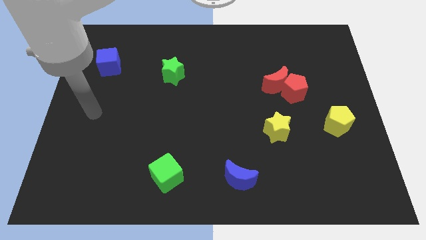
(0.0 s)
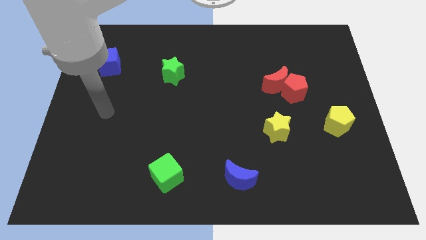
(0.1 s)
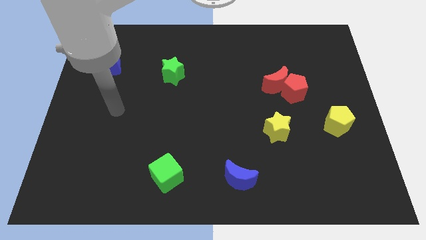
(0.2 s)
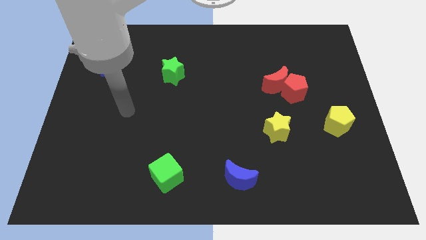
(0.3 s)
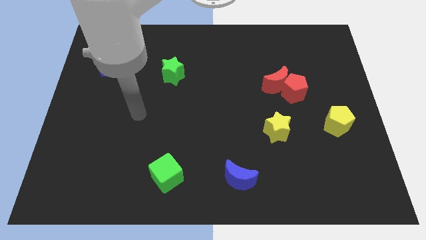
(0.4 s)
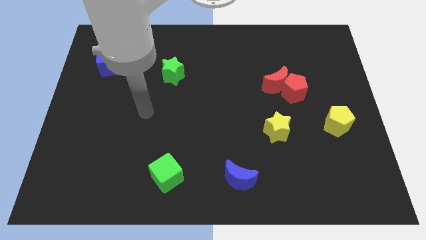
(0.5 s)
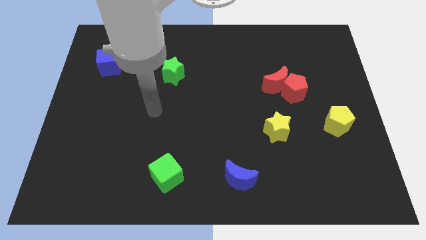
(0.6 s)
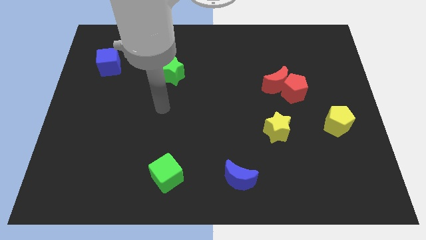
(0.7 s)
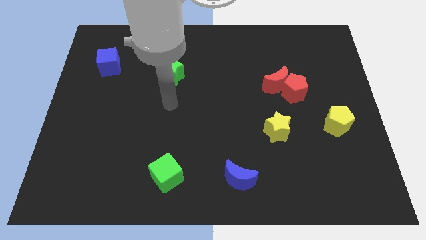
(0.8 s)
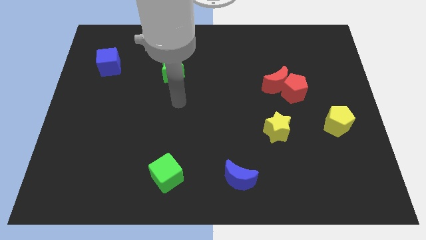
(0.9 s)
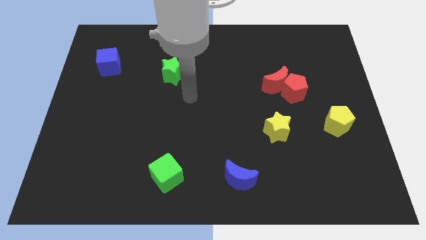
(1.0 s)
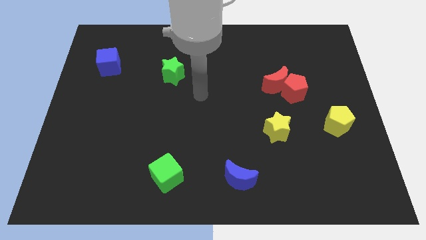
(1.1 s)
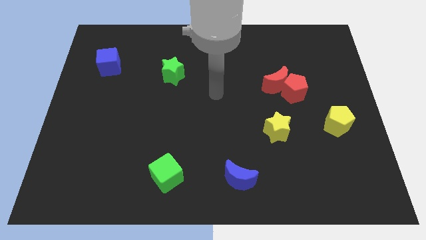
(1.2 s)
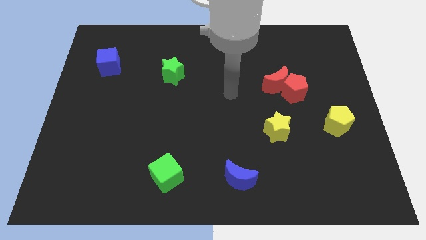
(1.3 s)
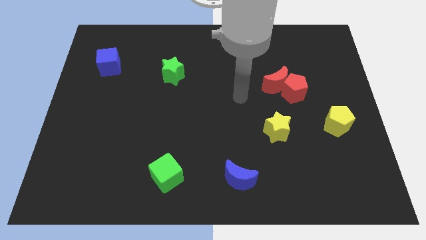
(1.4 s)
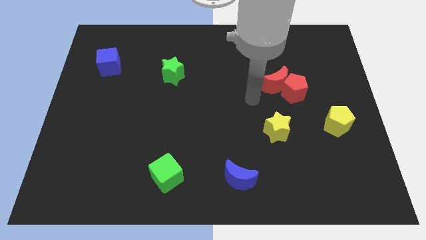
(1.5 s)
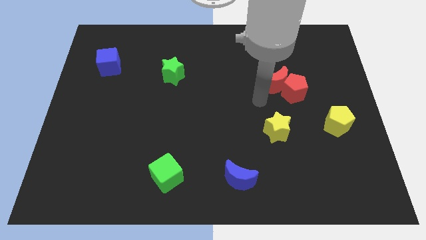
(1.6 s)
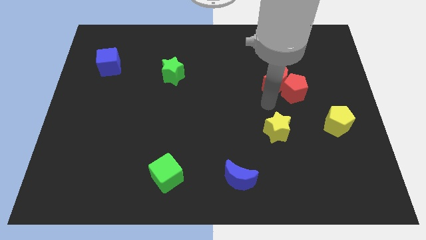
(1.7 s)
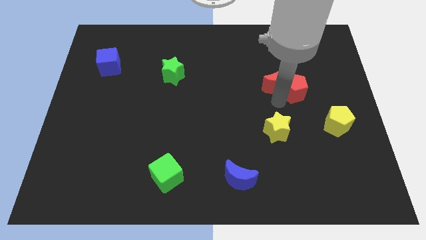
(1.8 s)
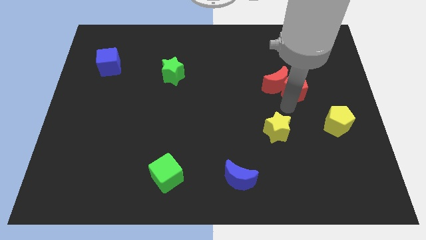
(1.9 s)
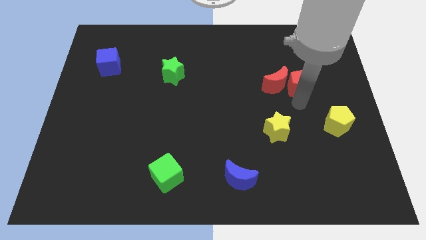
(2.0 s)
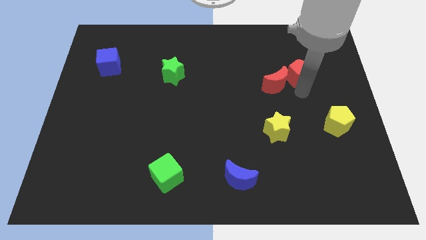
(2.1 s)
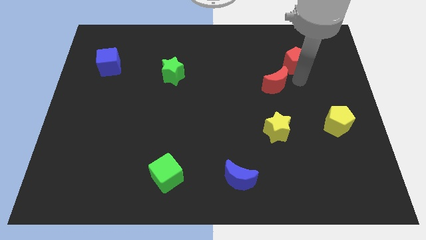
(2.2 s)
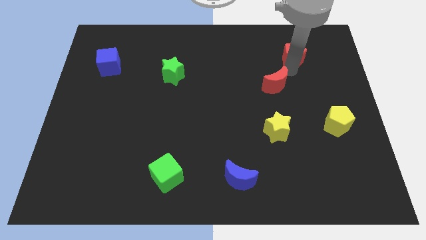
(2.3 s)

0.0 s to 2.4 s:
separate the red moon from the red pentagon

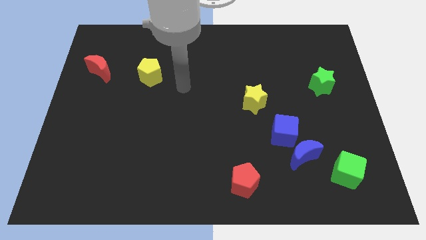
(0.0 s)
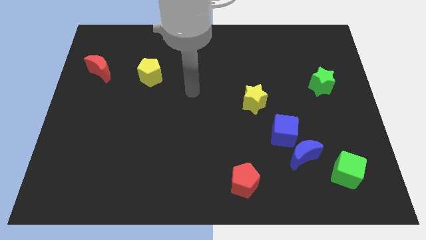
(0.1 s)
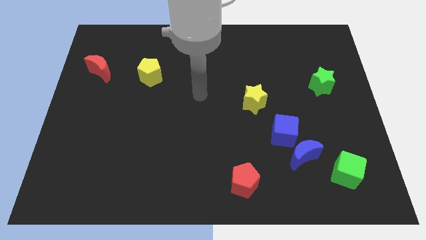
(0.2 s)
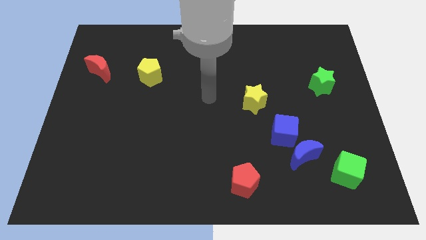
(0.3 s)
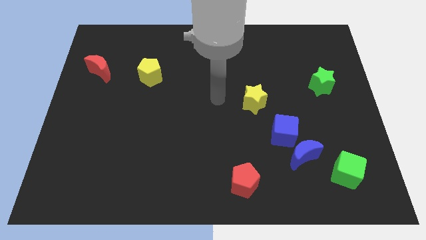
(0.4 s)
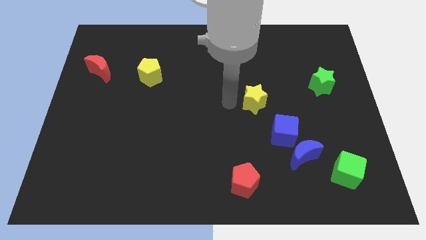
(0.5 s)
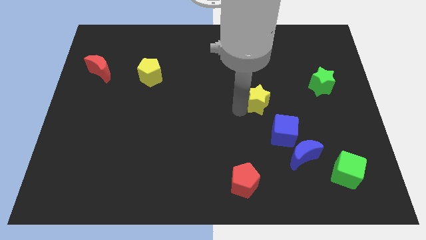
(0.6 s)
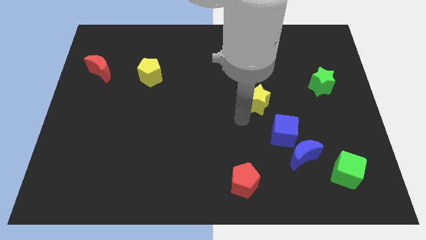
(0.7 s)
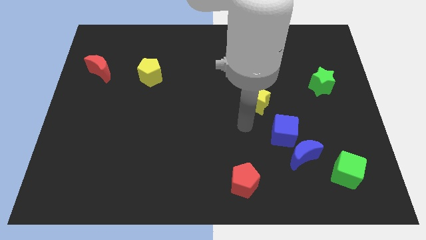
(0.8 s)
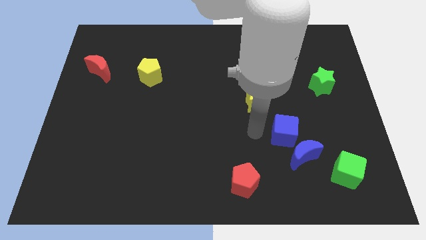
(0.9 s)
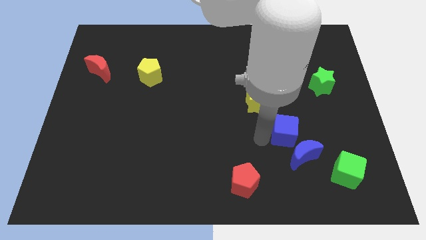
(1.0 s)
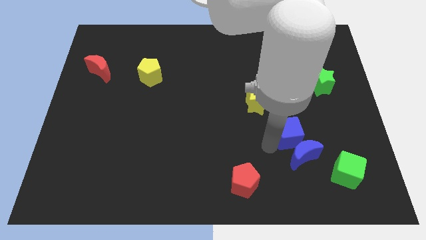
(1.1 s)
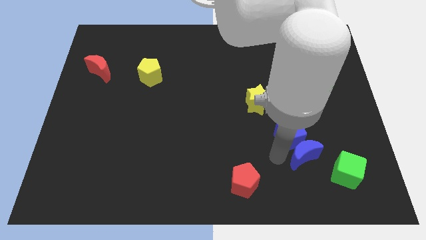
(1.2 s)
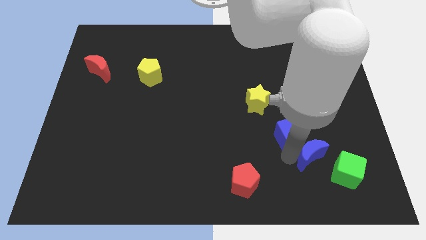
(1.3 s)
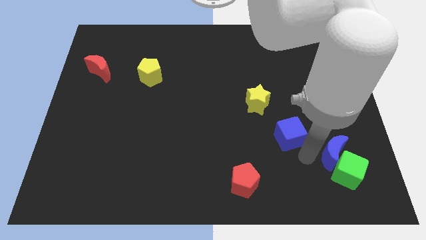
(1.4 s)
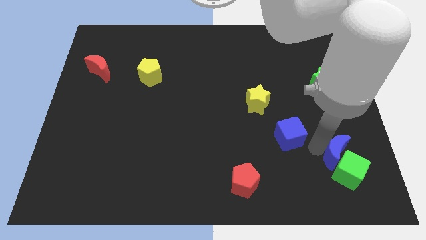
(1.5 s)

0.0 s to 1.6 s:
separate the blue cube from the blue moon

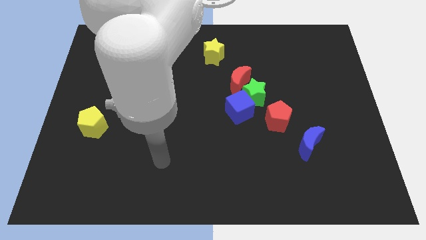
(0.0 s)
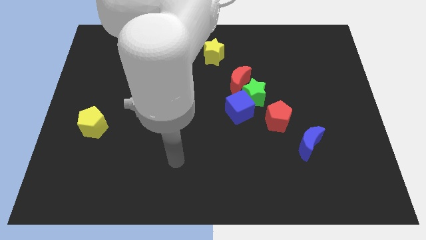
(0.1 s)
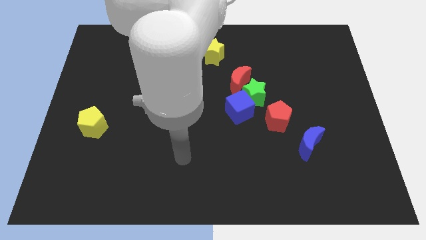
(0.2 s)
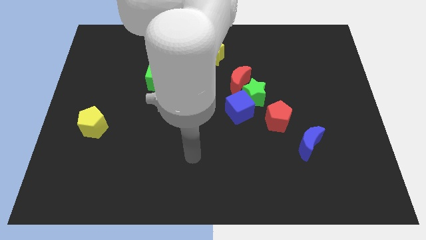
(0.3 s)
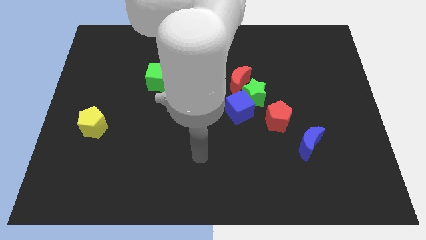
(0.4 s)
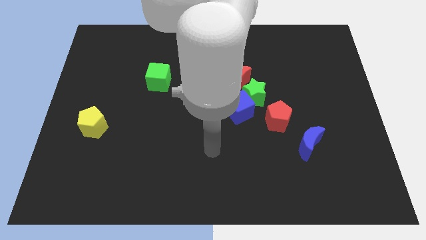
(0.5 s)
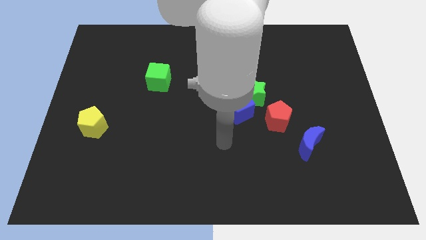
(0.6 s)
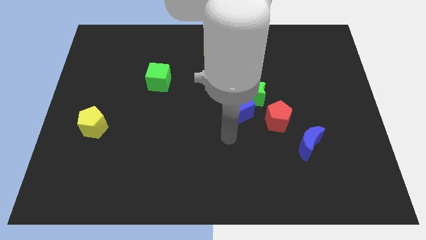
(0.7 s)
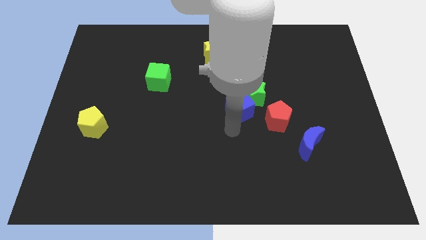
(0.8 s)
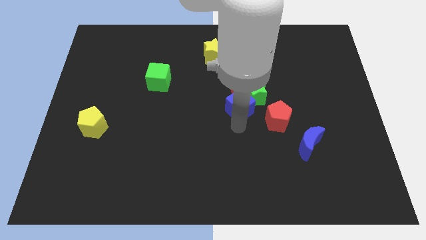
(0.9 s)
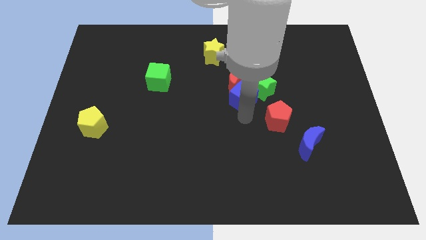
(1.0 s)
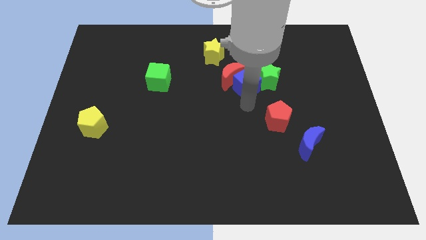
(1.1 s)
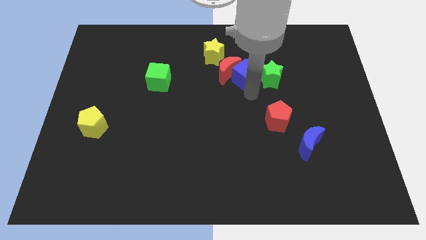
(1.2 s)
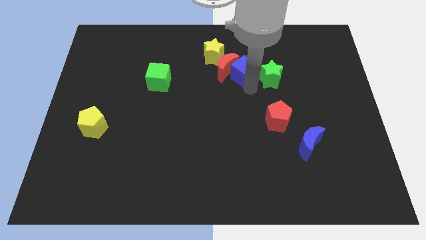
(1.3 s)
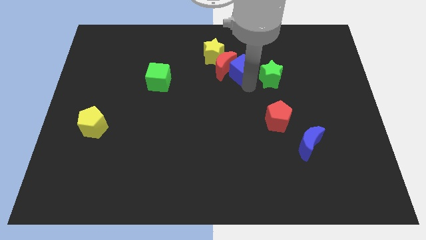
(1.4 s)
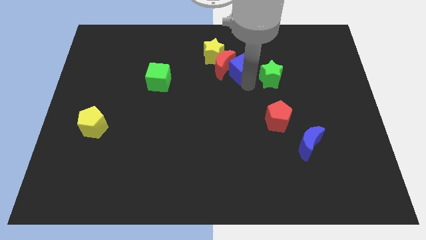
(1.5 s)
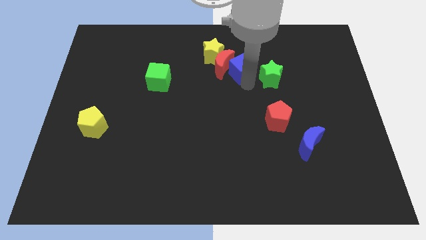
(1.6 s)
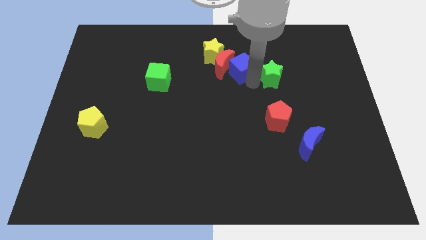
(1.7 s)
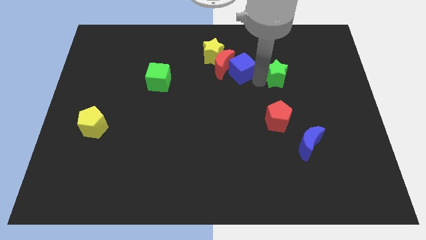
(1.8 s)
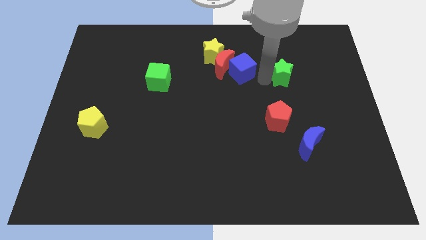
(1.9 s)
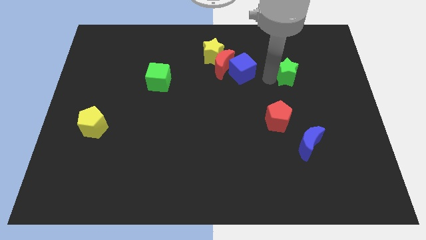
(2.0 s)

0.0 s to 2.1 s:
separate the green star from the group

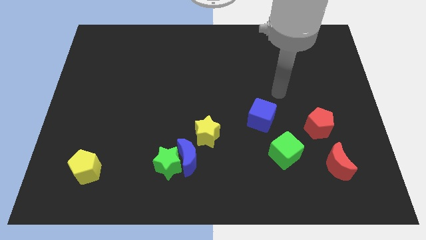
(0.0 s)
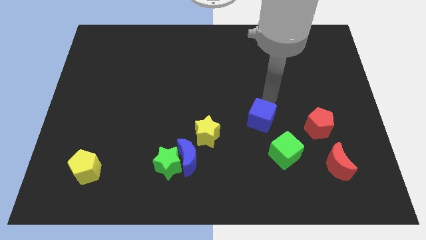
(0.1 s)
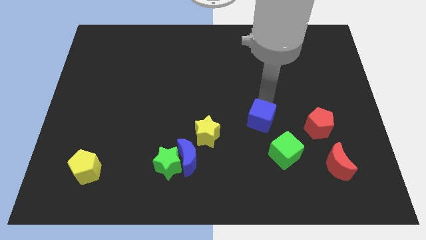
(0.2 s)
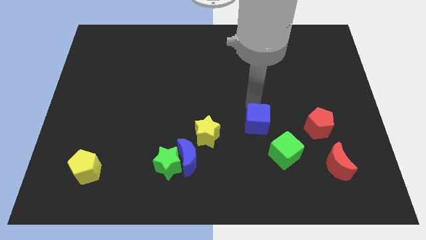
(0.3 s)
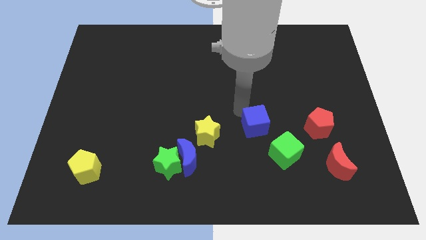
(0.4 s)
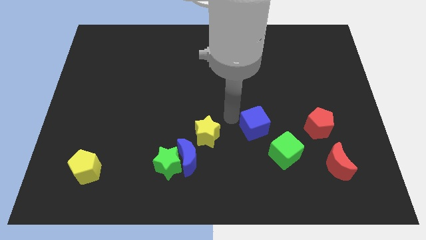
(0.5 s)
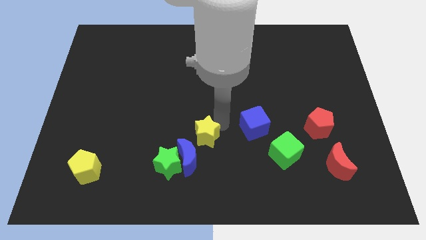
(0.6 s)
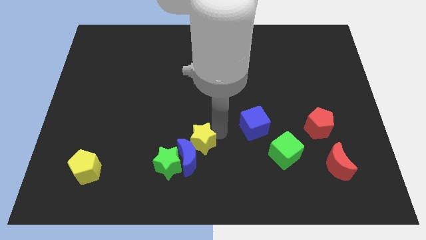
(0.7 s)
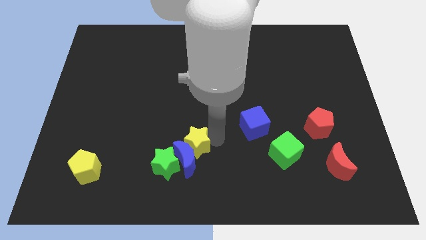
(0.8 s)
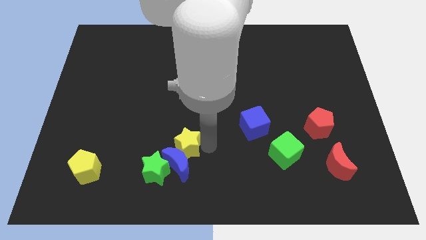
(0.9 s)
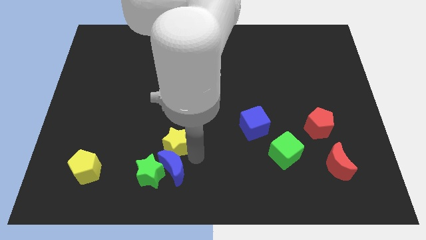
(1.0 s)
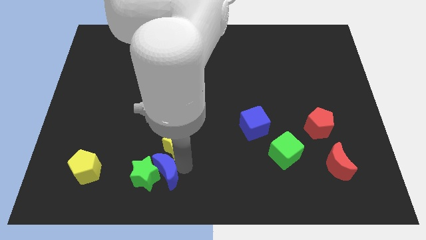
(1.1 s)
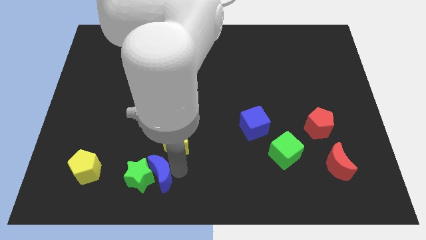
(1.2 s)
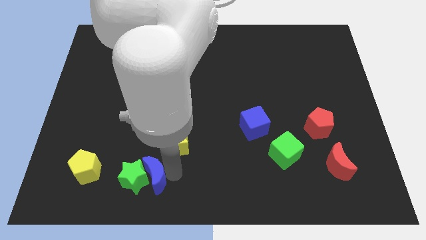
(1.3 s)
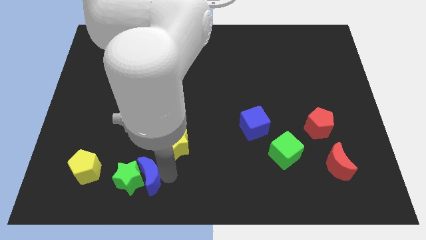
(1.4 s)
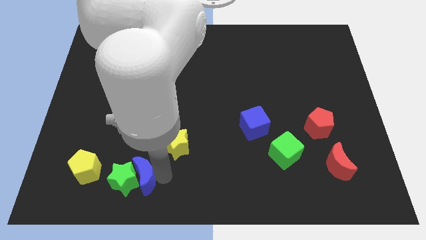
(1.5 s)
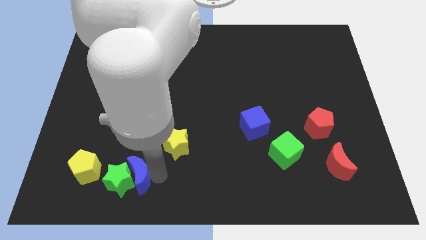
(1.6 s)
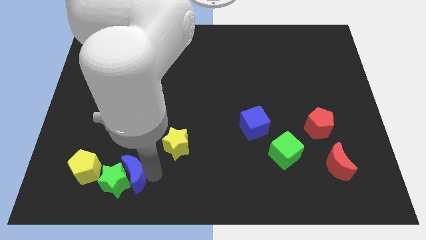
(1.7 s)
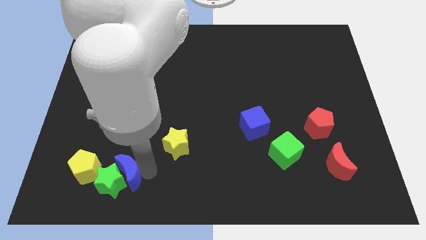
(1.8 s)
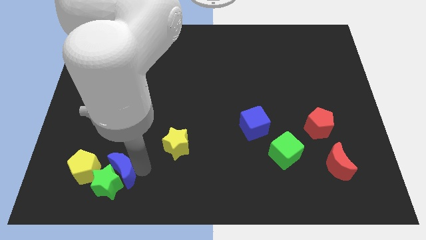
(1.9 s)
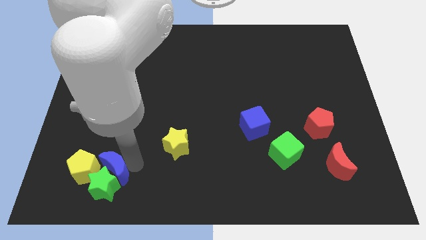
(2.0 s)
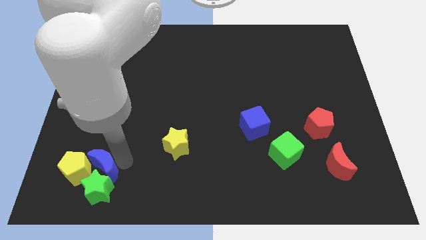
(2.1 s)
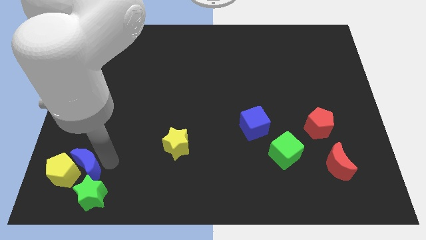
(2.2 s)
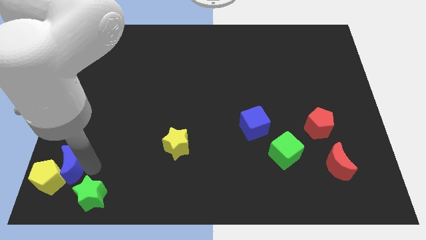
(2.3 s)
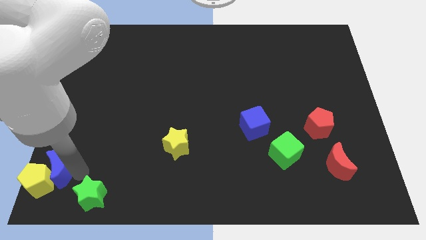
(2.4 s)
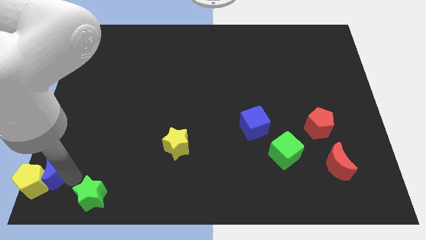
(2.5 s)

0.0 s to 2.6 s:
move the green star away from the blue moon

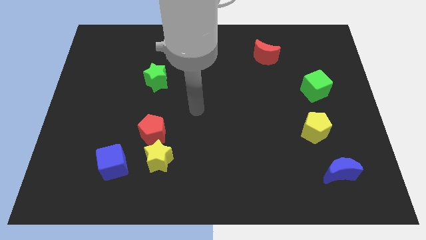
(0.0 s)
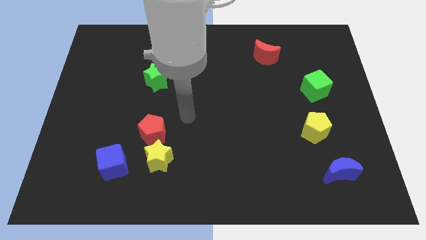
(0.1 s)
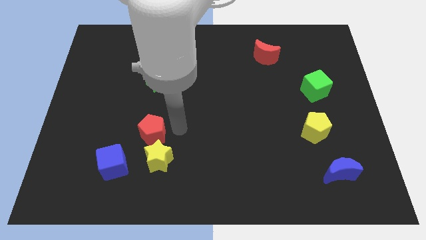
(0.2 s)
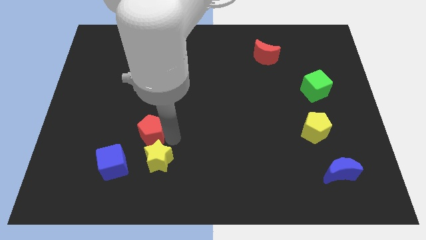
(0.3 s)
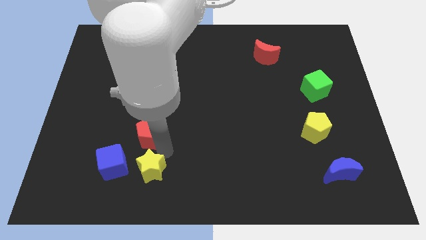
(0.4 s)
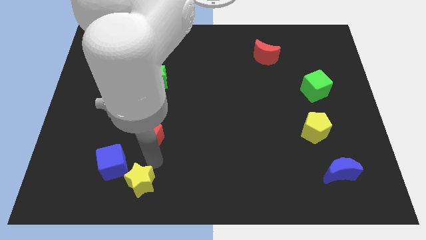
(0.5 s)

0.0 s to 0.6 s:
separate the red pentagon from the yellow star
